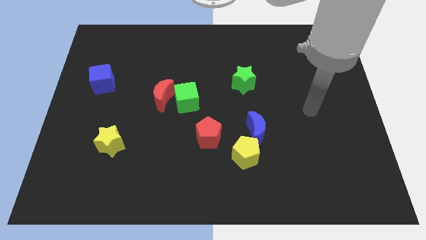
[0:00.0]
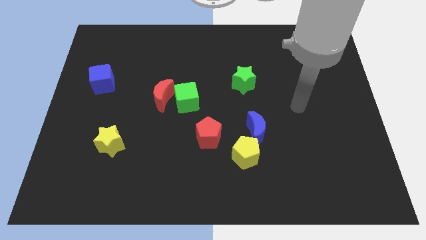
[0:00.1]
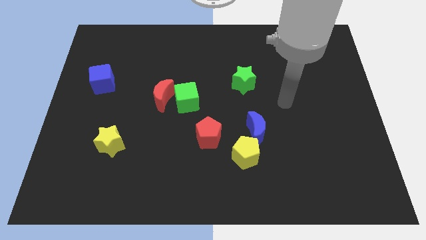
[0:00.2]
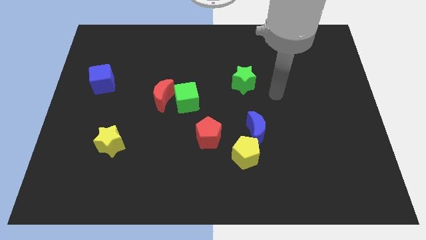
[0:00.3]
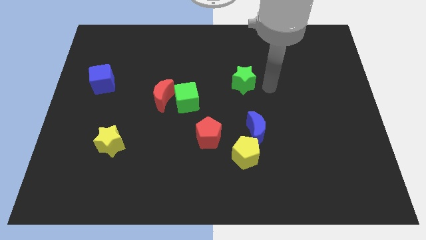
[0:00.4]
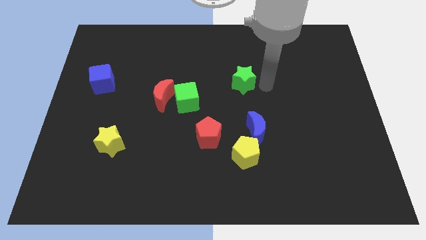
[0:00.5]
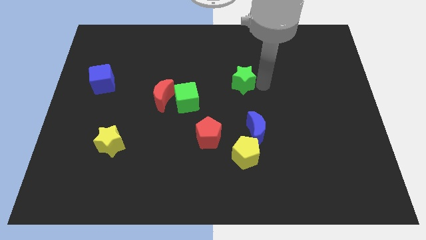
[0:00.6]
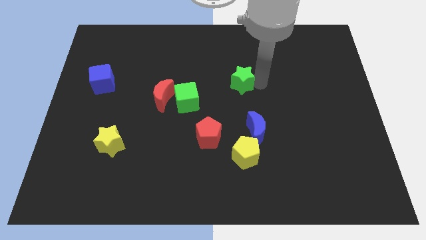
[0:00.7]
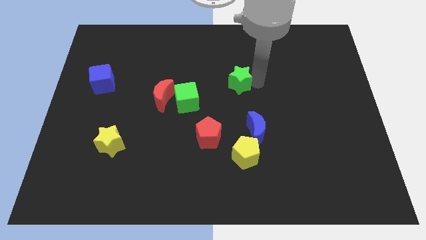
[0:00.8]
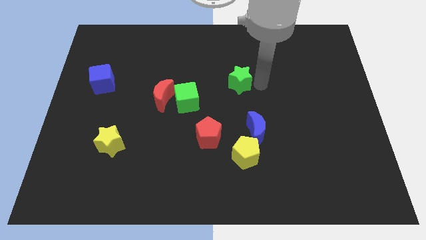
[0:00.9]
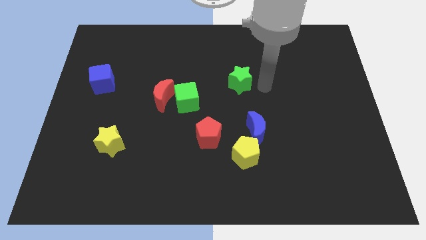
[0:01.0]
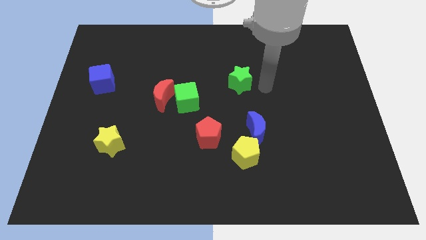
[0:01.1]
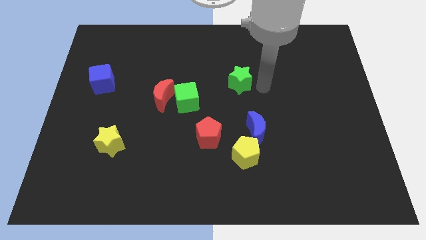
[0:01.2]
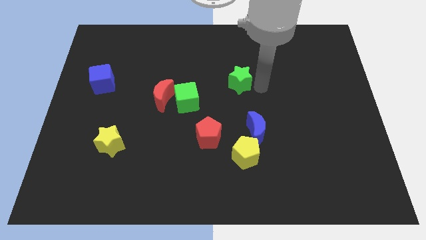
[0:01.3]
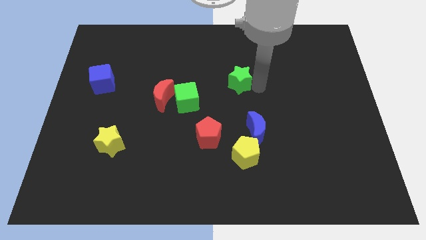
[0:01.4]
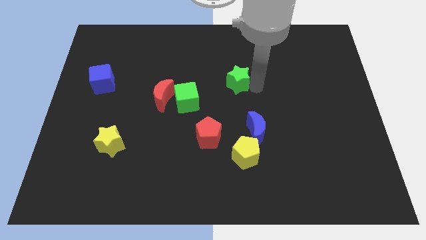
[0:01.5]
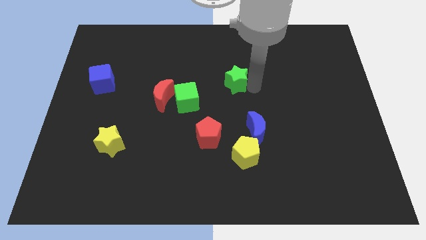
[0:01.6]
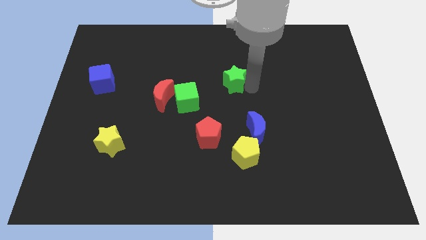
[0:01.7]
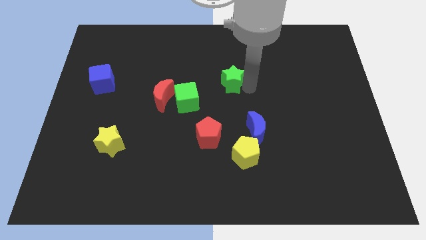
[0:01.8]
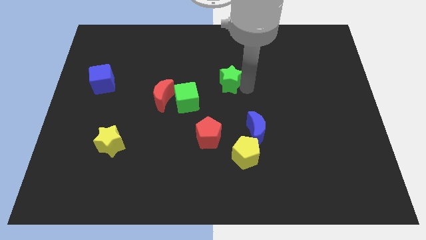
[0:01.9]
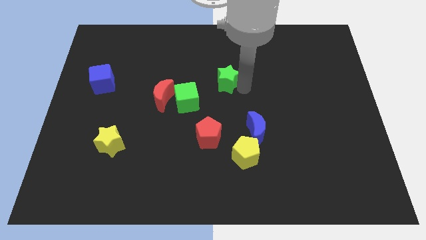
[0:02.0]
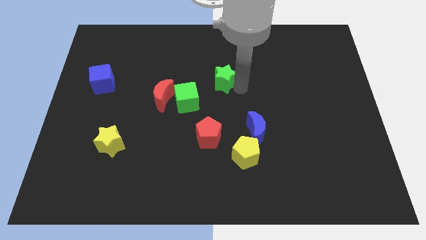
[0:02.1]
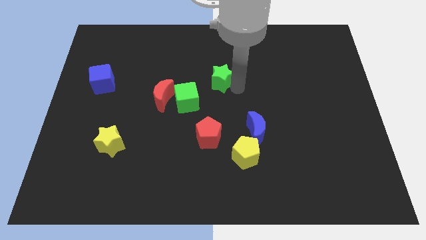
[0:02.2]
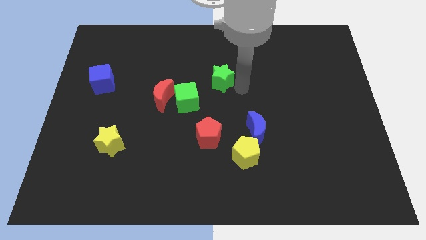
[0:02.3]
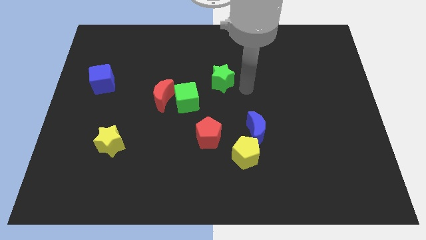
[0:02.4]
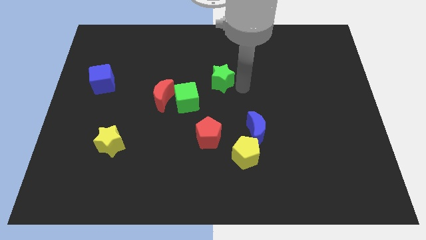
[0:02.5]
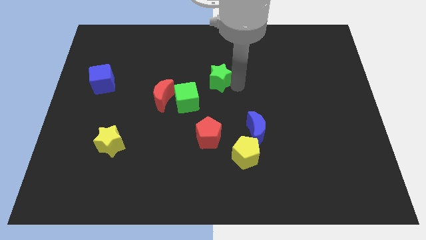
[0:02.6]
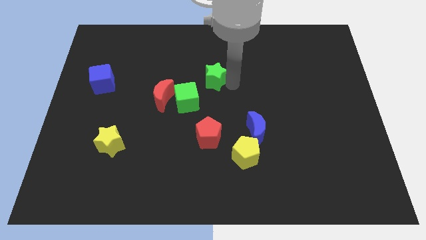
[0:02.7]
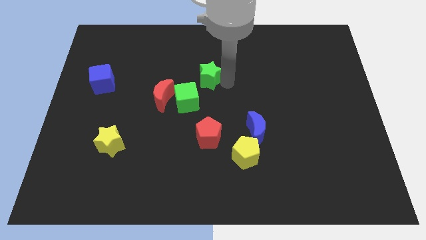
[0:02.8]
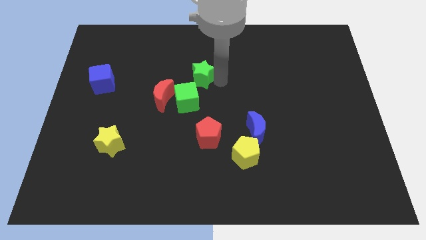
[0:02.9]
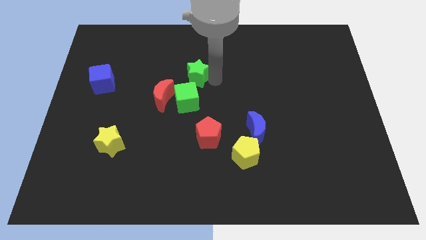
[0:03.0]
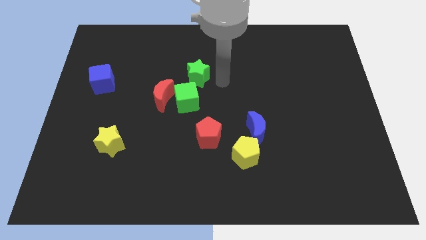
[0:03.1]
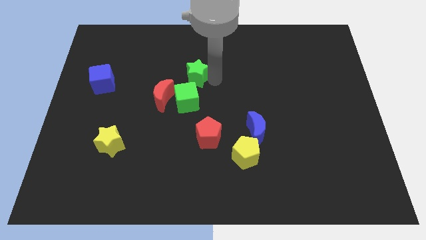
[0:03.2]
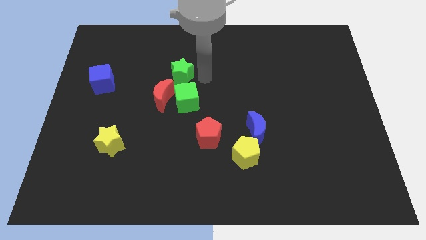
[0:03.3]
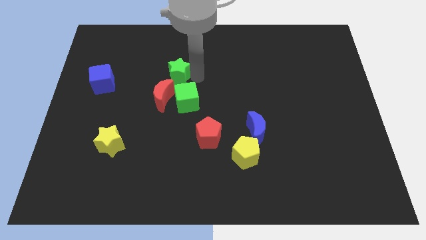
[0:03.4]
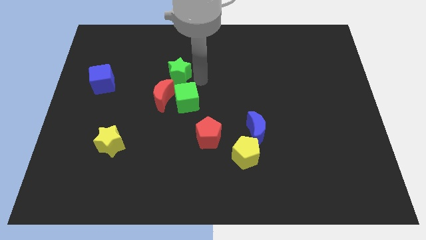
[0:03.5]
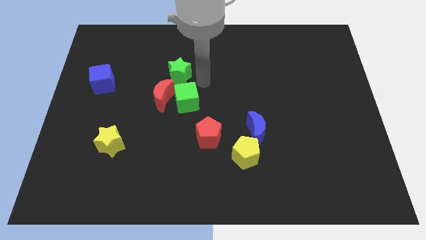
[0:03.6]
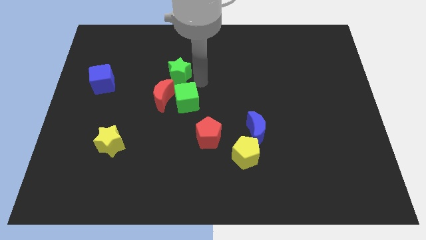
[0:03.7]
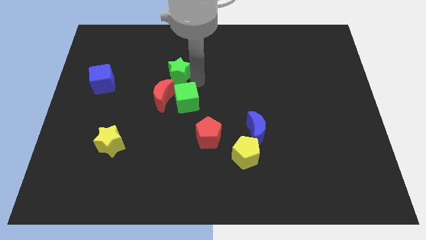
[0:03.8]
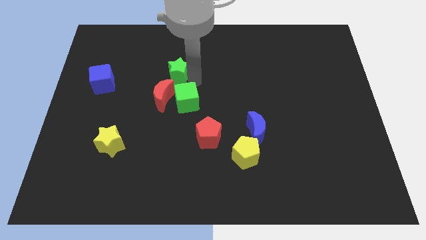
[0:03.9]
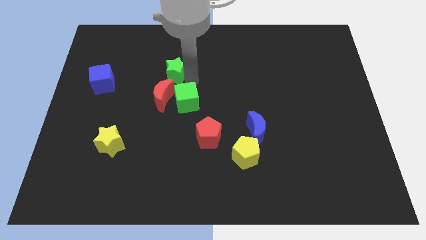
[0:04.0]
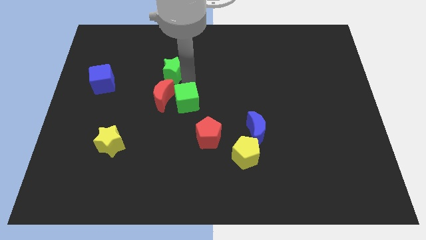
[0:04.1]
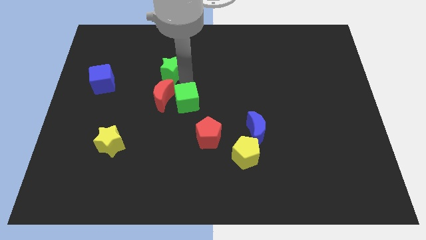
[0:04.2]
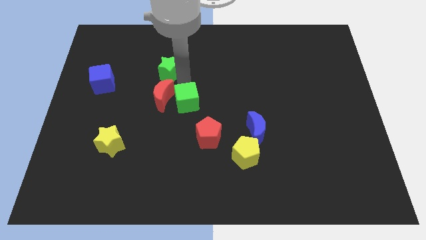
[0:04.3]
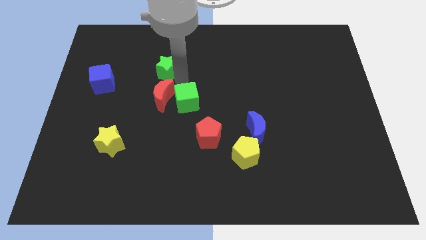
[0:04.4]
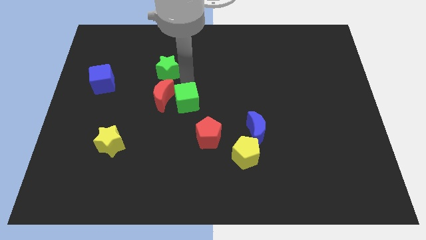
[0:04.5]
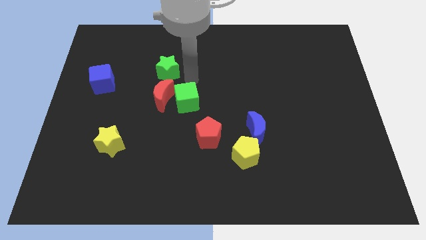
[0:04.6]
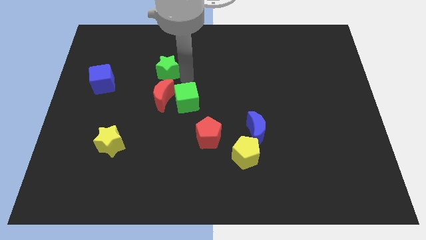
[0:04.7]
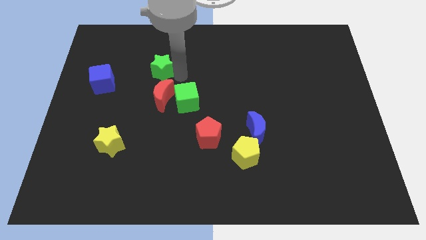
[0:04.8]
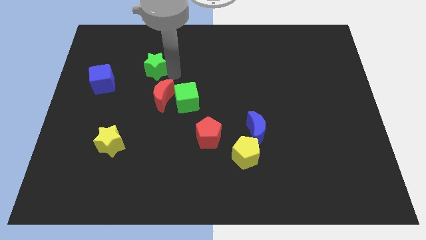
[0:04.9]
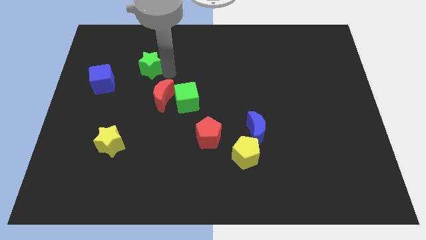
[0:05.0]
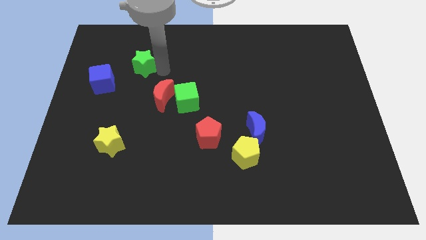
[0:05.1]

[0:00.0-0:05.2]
push the green star diagonally up and to the right of the blue cube

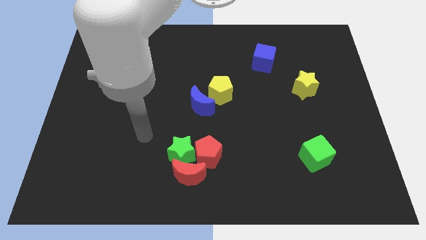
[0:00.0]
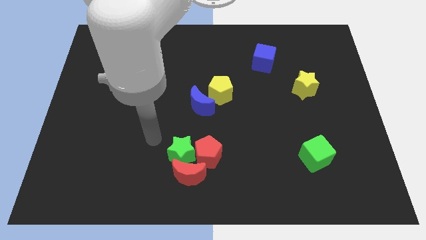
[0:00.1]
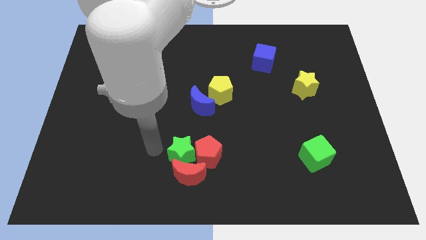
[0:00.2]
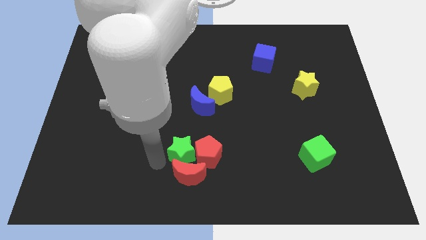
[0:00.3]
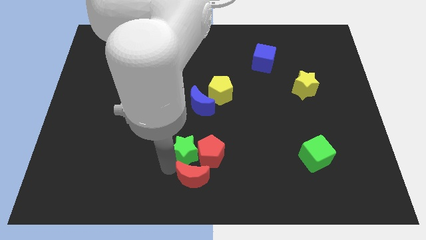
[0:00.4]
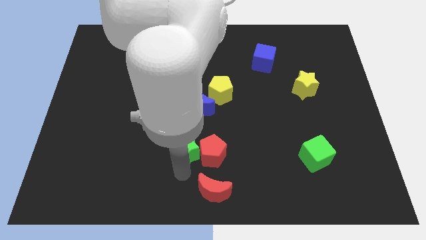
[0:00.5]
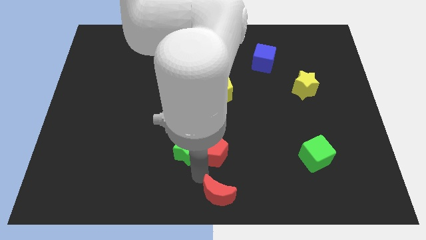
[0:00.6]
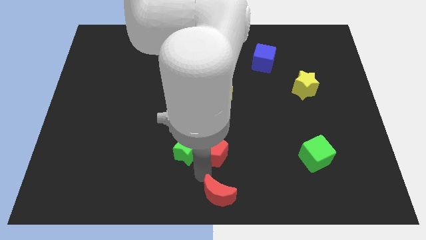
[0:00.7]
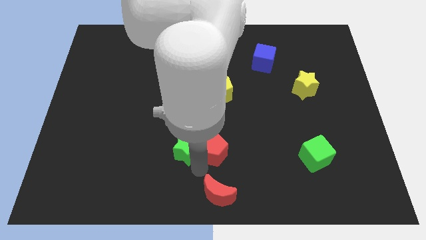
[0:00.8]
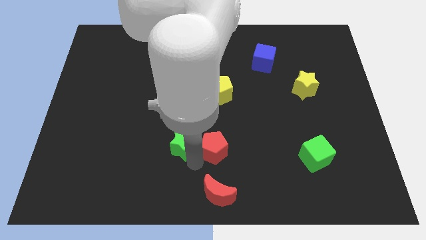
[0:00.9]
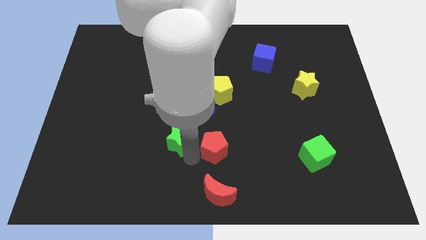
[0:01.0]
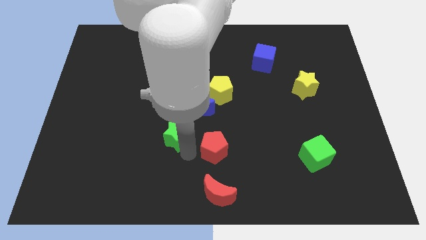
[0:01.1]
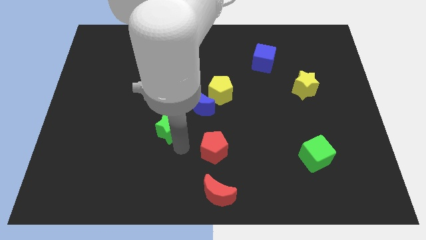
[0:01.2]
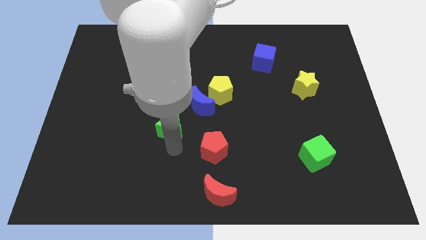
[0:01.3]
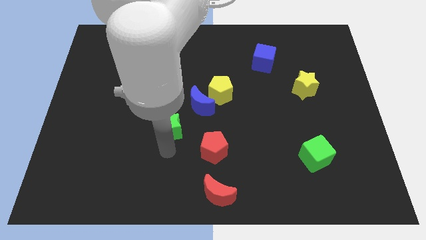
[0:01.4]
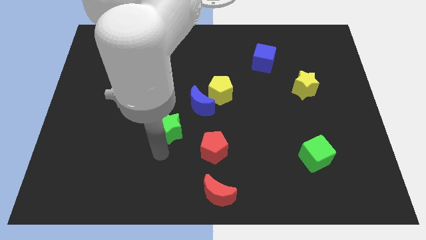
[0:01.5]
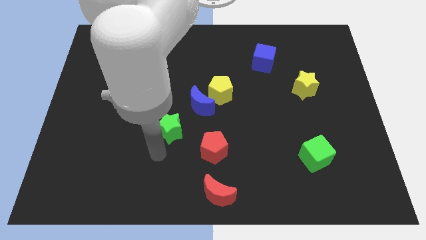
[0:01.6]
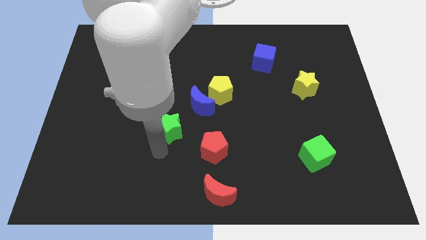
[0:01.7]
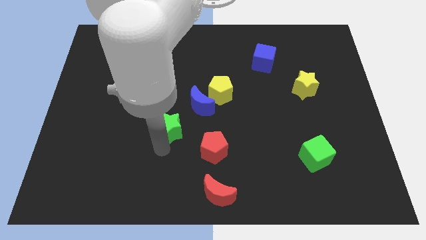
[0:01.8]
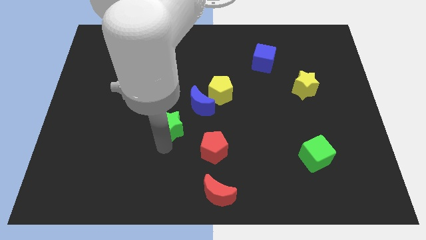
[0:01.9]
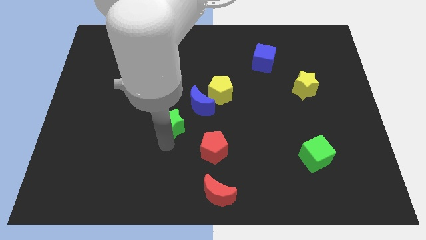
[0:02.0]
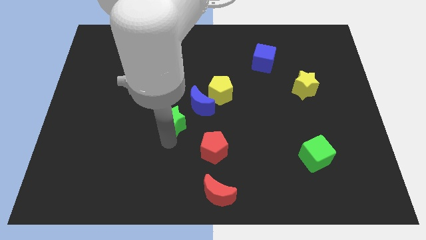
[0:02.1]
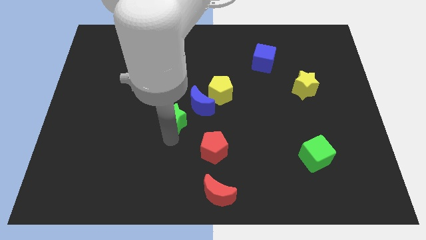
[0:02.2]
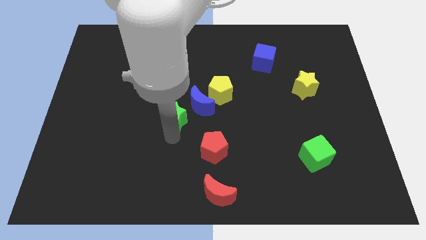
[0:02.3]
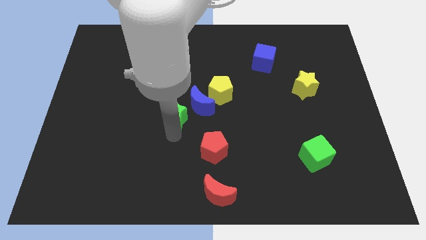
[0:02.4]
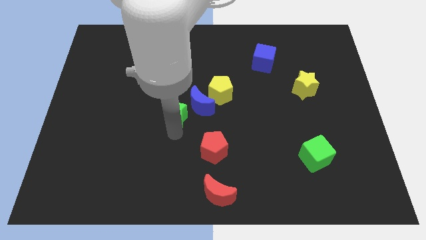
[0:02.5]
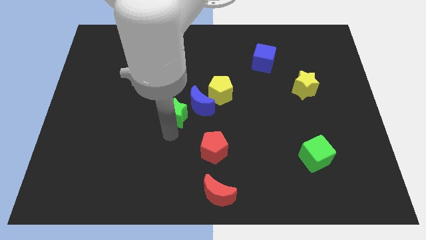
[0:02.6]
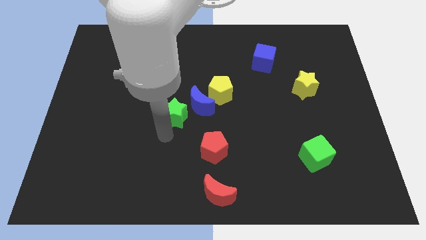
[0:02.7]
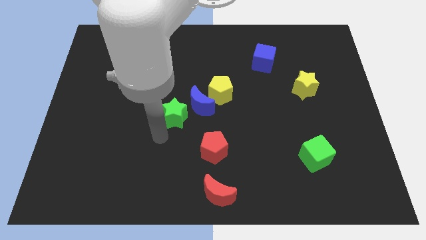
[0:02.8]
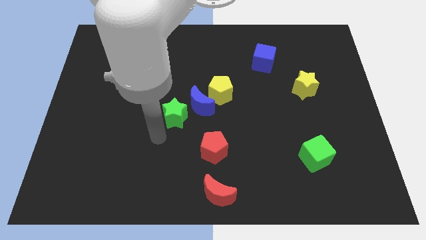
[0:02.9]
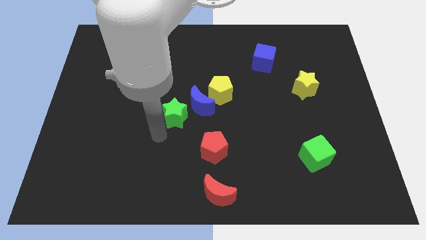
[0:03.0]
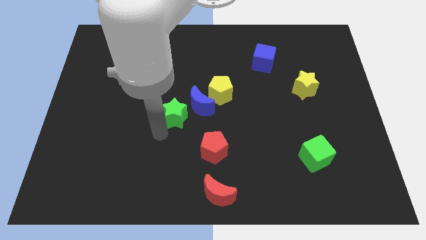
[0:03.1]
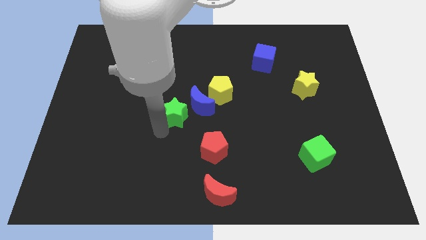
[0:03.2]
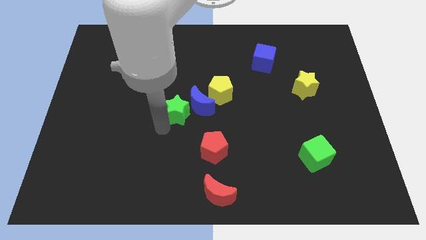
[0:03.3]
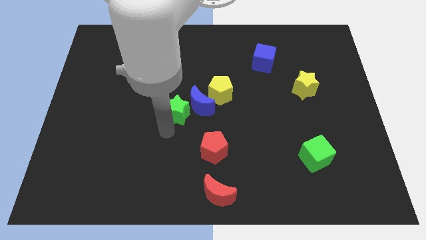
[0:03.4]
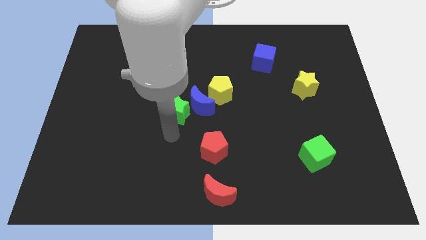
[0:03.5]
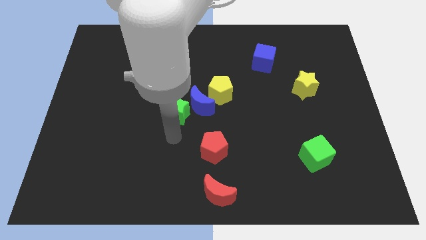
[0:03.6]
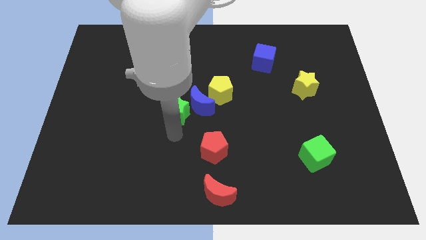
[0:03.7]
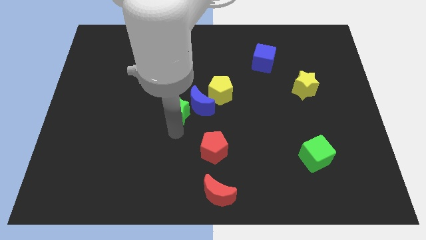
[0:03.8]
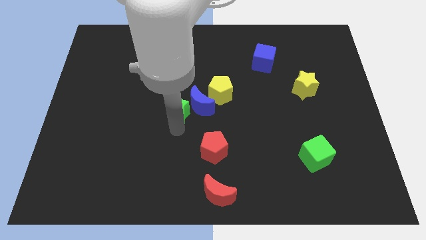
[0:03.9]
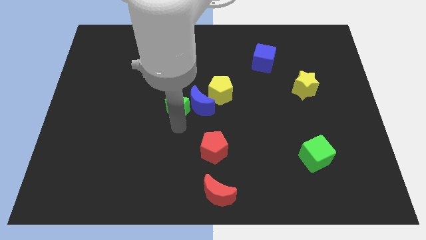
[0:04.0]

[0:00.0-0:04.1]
push the green star to the top left side of the blue moon
